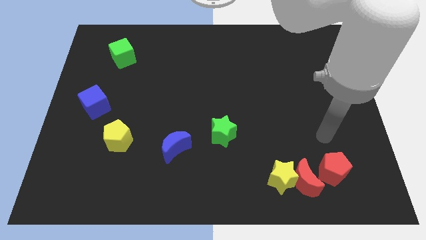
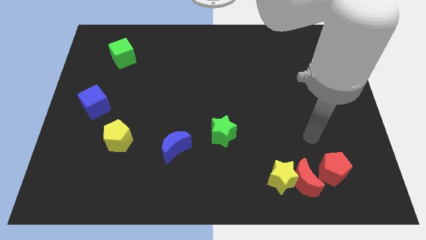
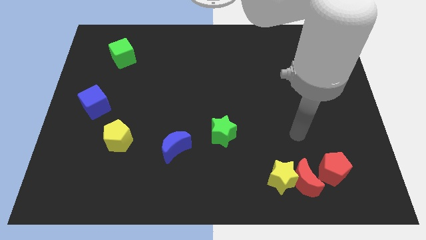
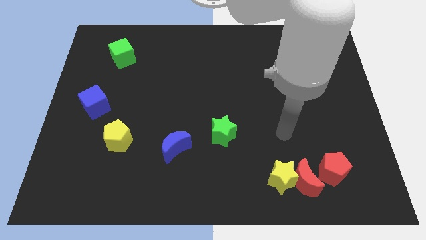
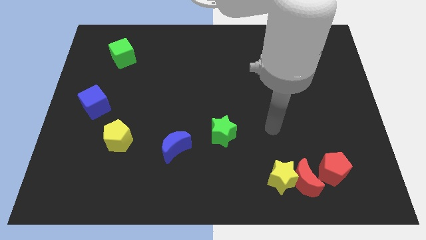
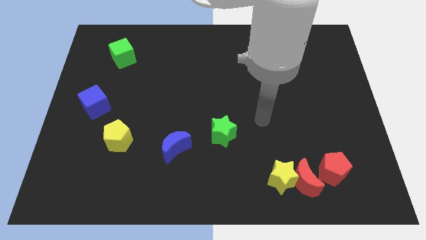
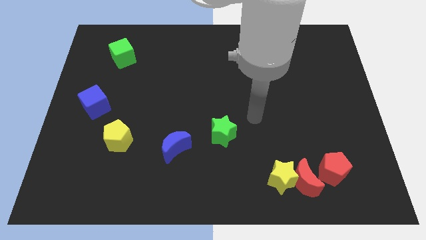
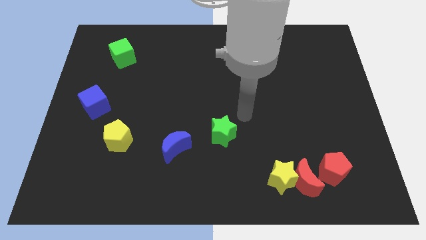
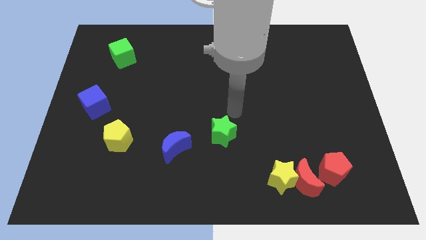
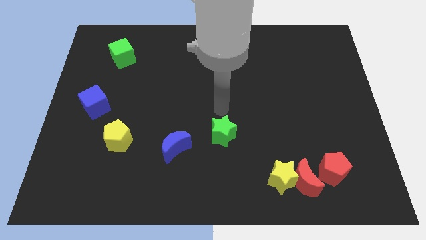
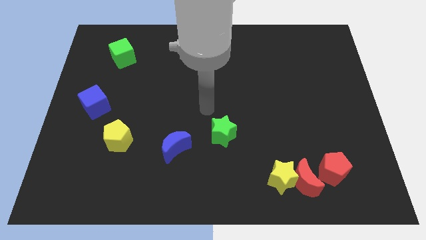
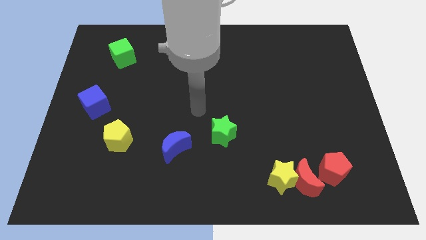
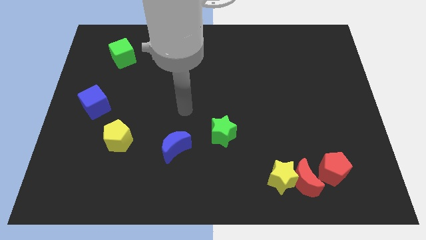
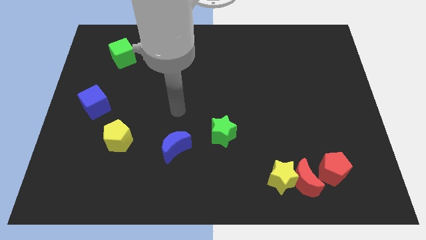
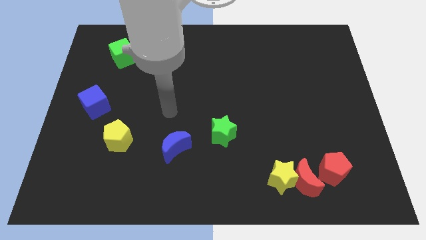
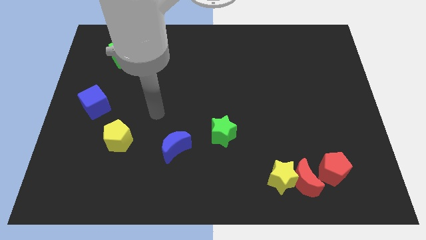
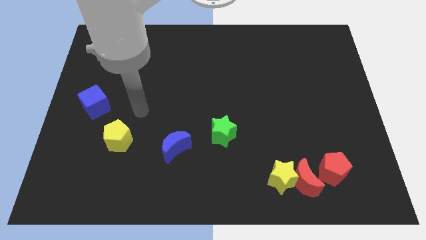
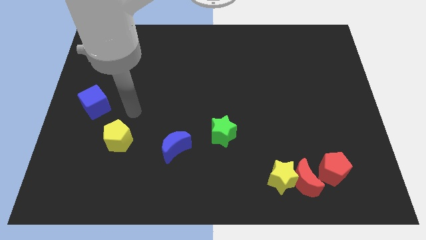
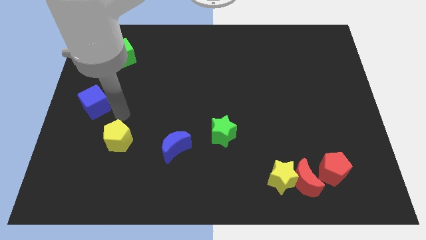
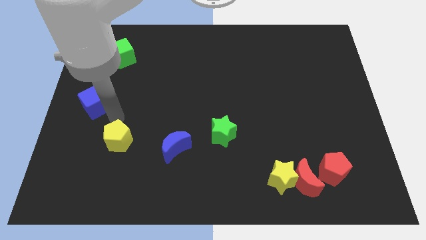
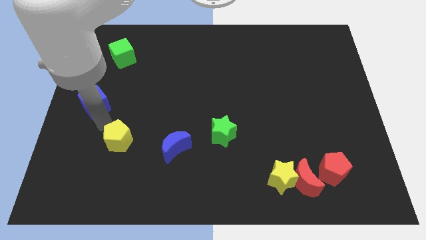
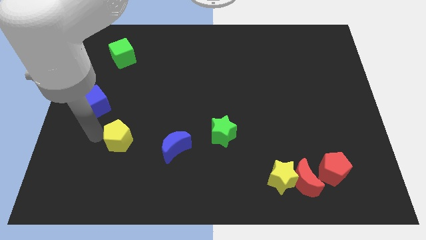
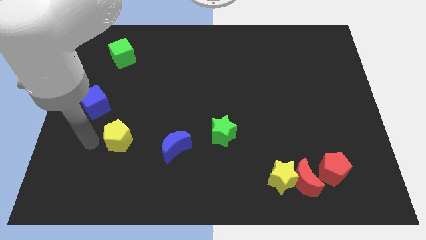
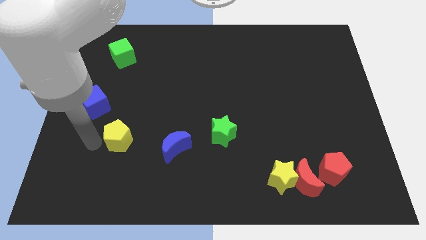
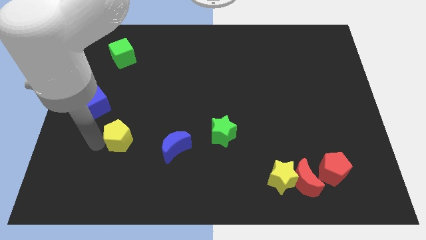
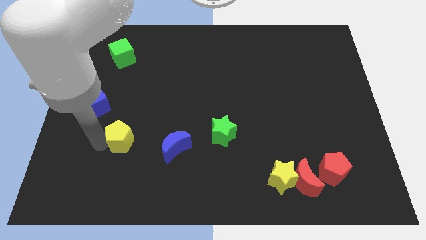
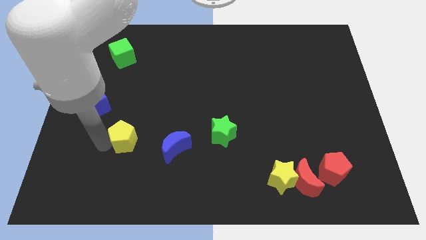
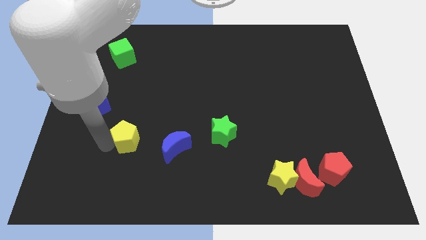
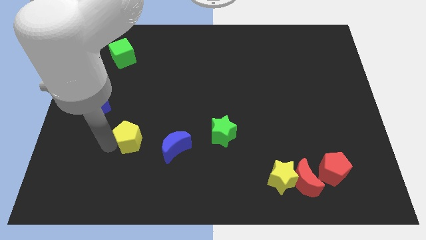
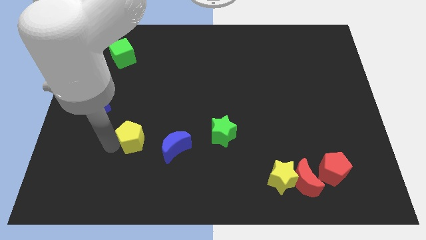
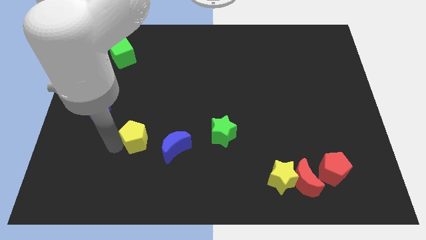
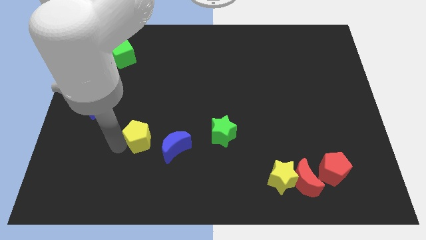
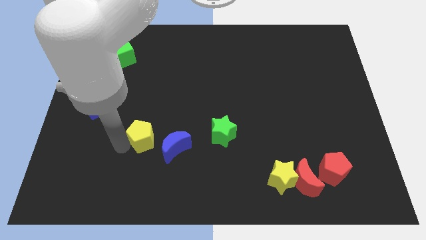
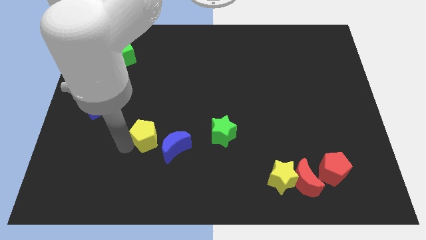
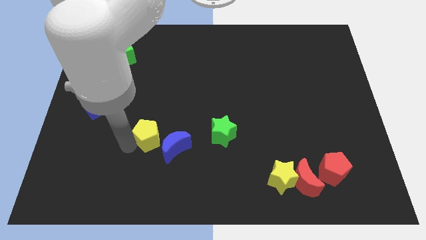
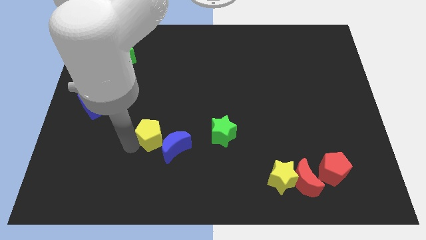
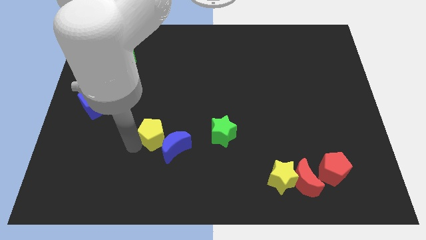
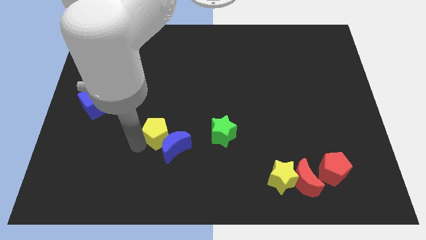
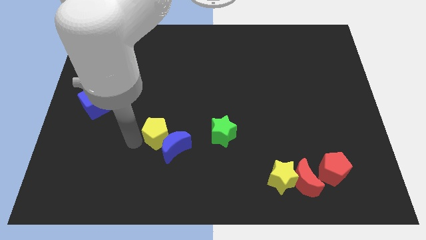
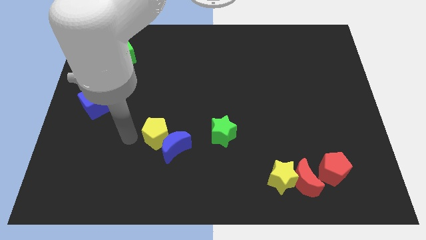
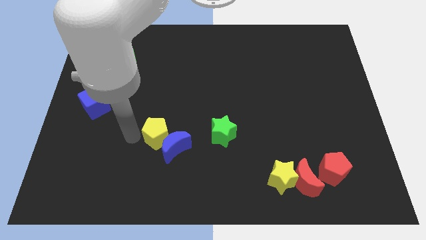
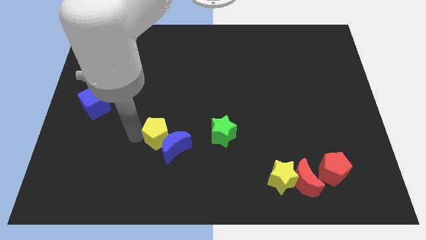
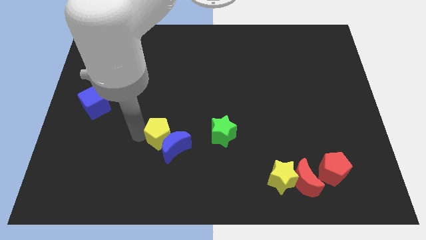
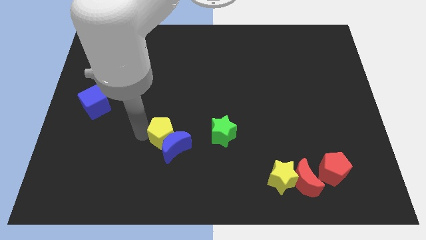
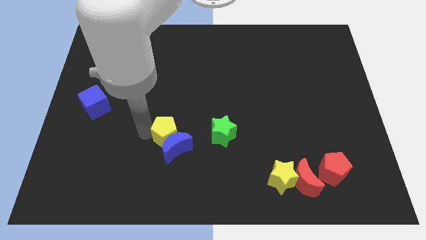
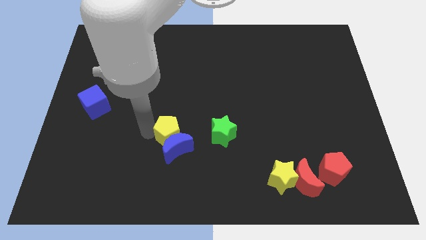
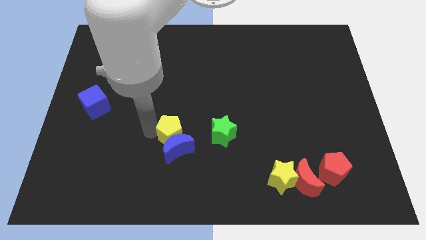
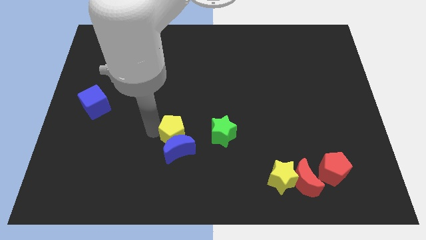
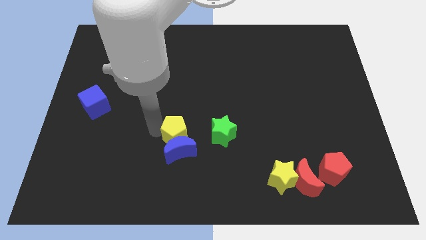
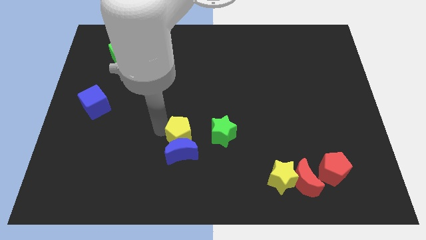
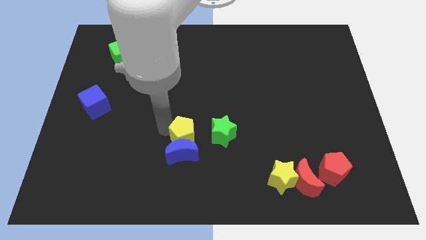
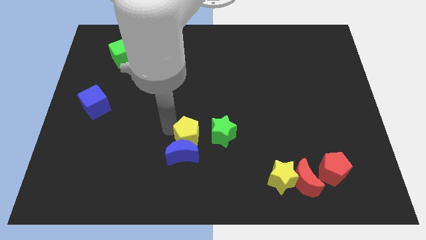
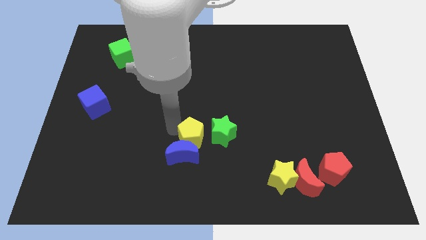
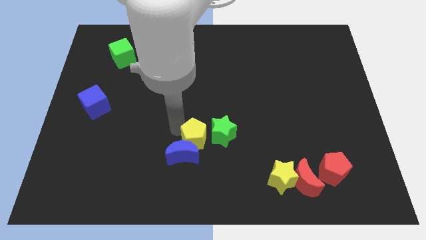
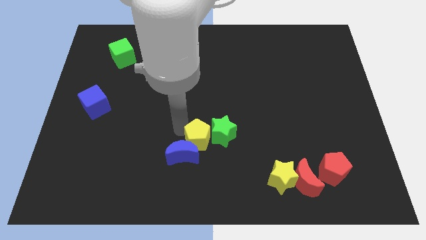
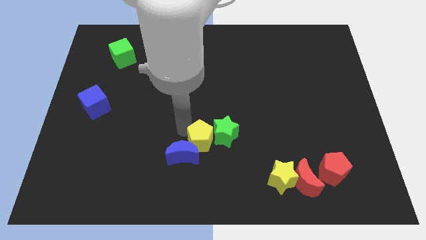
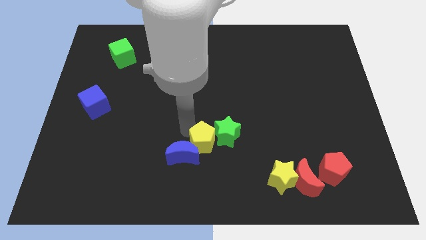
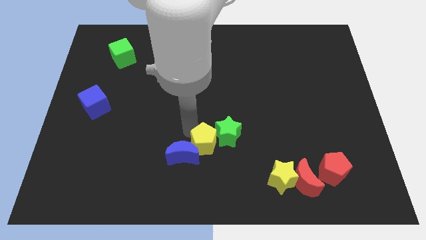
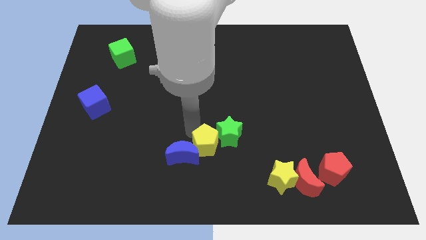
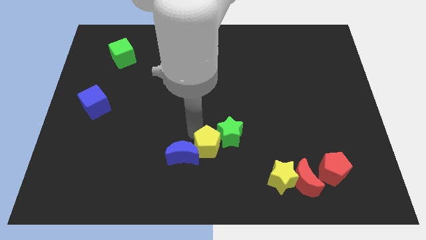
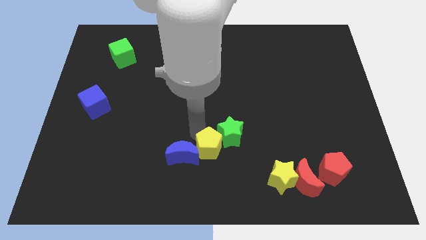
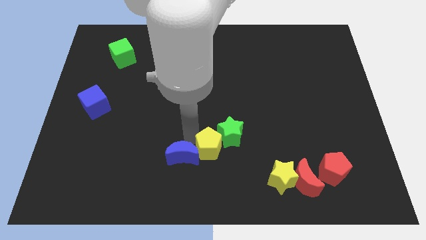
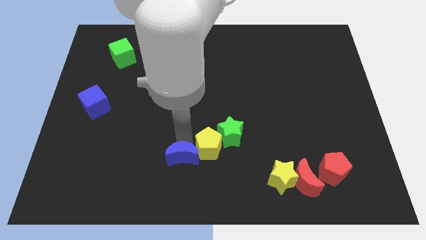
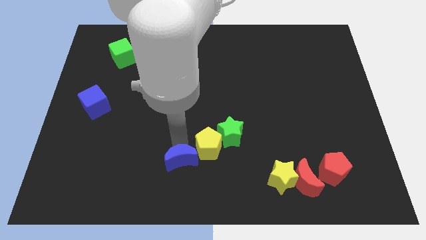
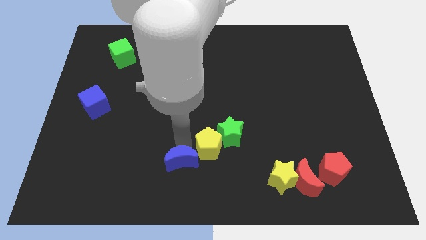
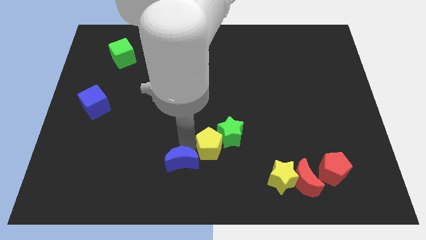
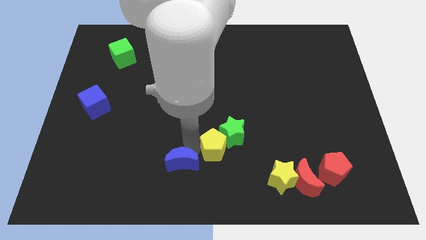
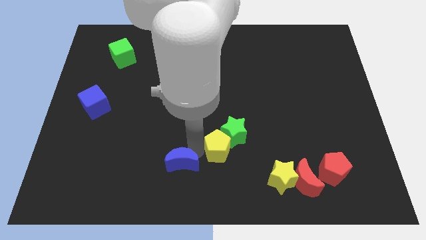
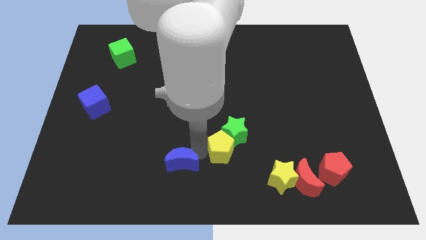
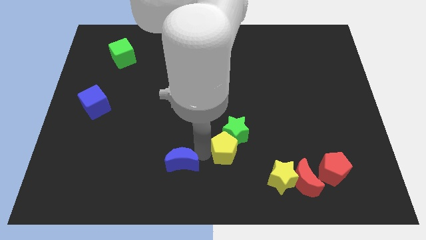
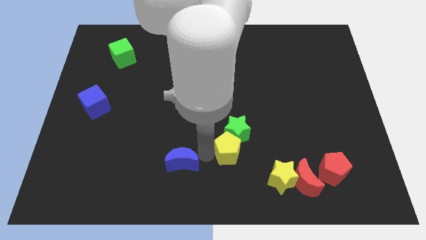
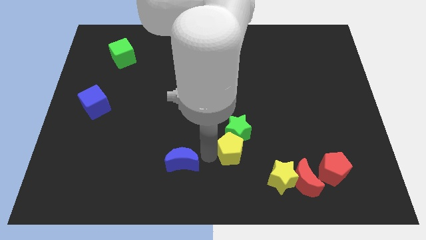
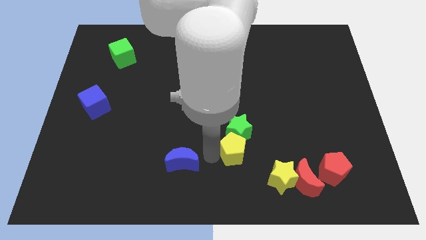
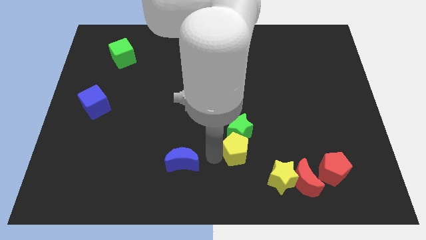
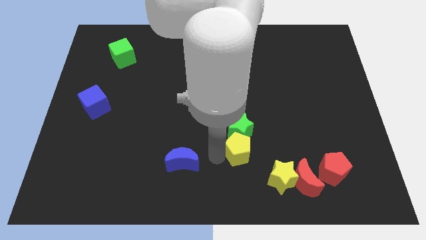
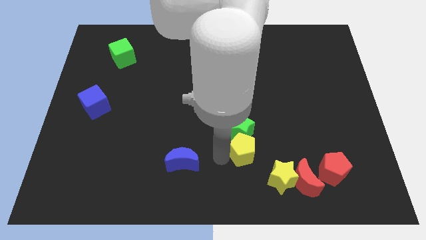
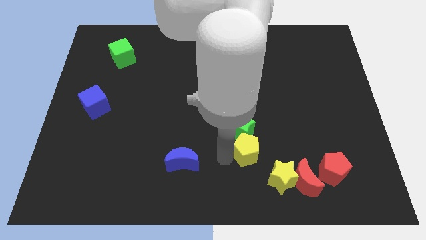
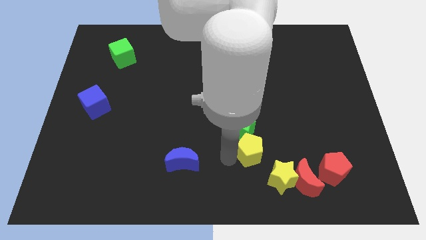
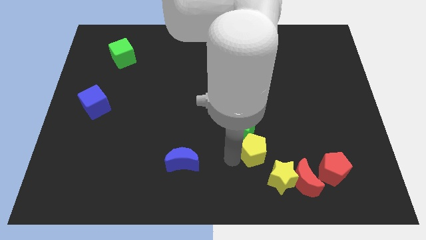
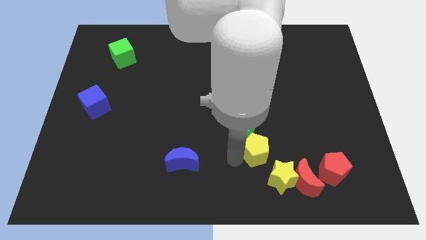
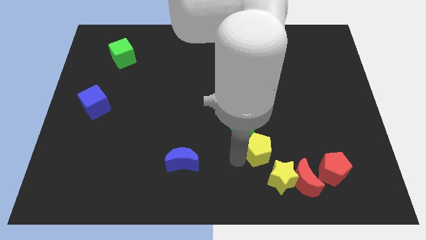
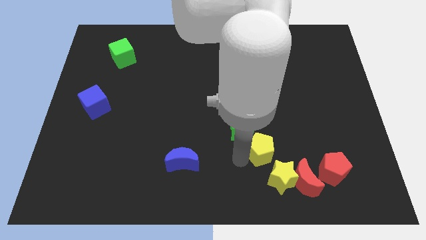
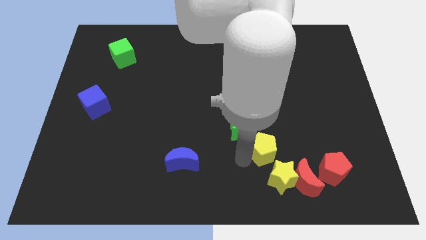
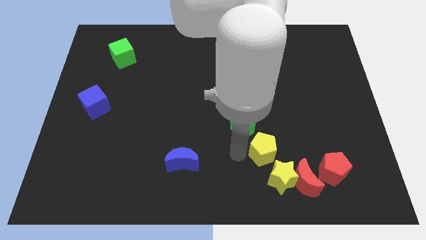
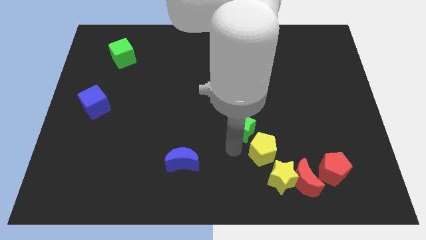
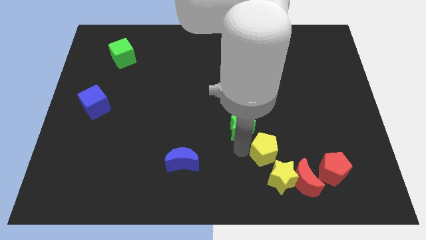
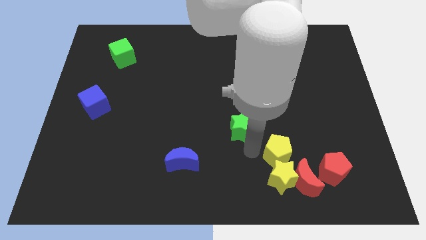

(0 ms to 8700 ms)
put the yellow pentagon to the top right of the yellow star
